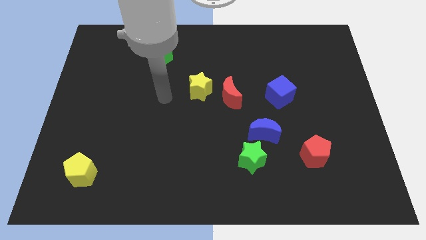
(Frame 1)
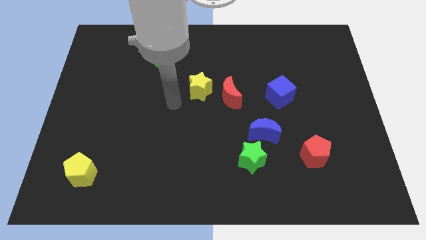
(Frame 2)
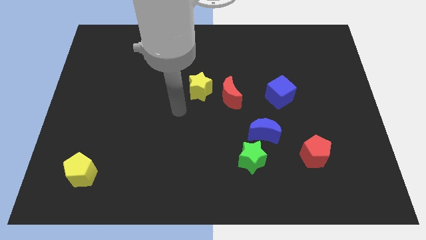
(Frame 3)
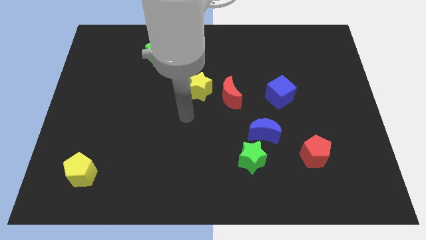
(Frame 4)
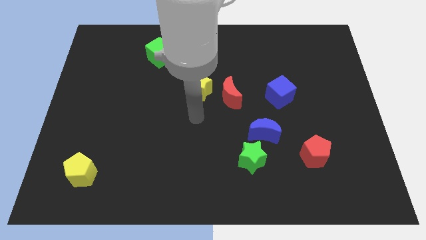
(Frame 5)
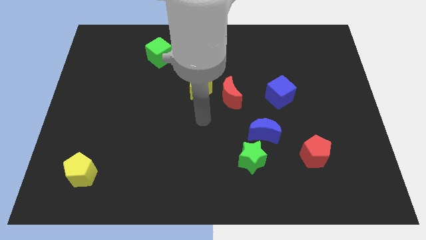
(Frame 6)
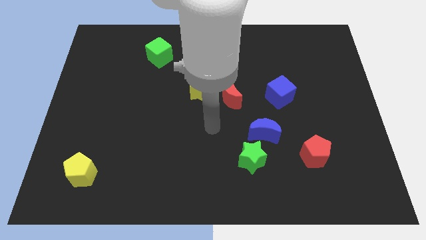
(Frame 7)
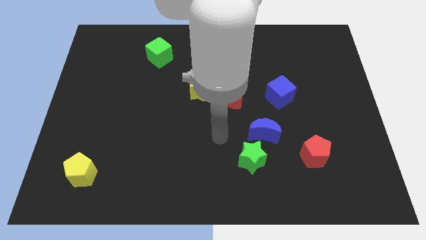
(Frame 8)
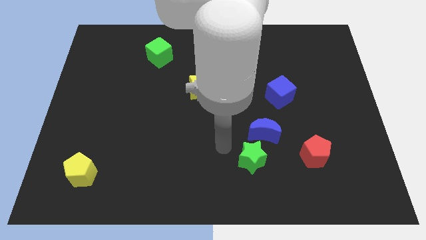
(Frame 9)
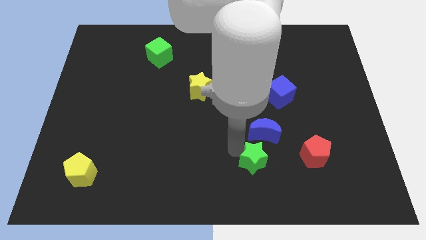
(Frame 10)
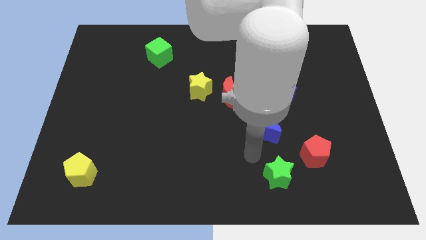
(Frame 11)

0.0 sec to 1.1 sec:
move the blue moon away from the green star

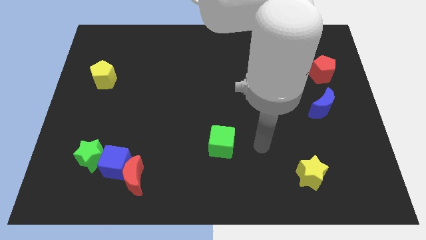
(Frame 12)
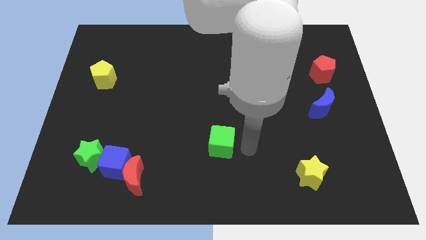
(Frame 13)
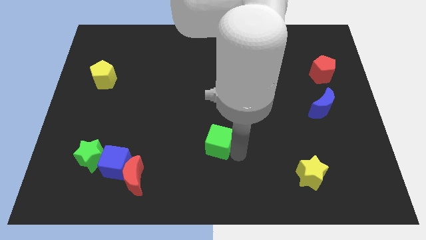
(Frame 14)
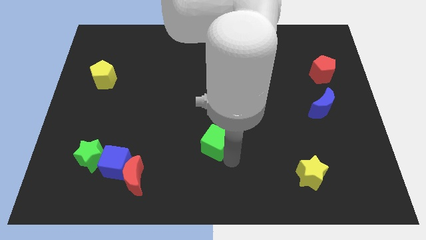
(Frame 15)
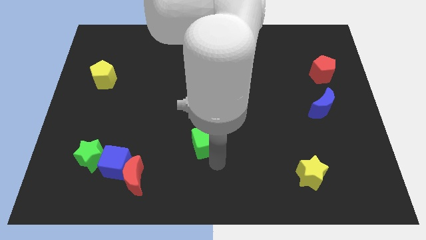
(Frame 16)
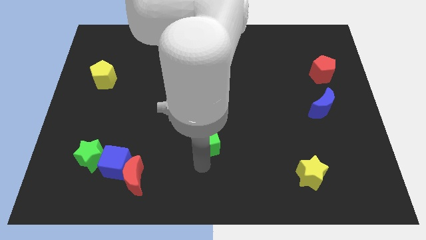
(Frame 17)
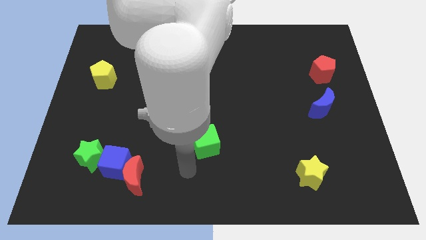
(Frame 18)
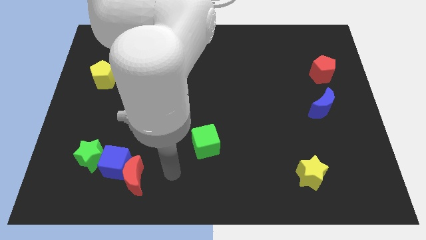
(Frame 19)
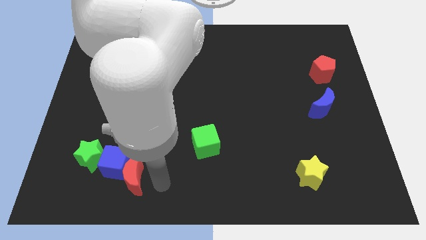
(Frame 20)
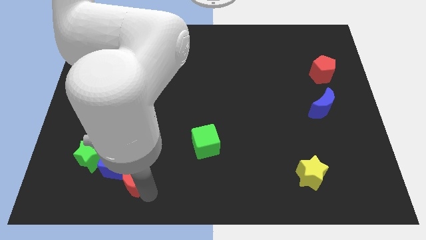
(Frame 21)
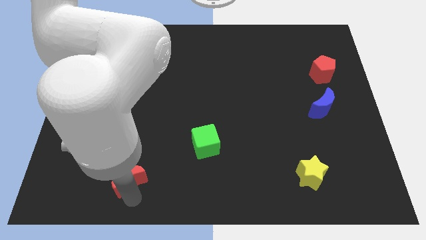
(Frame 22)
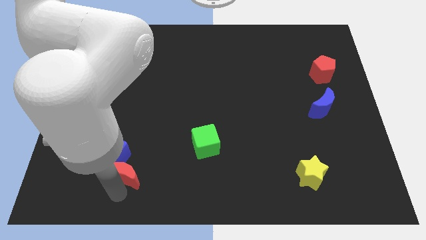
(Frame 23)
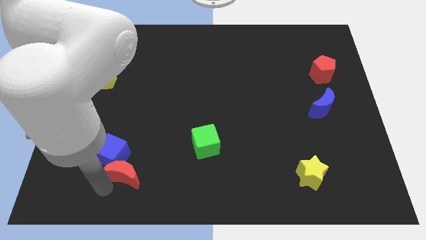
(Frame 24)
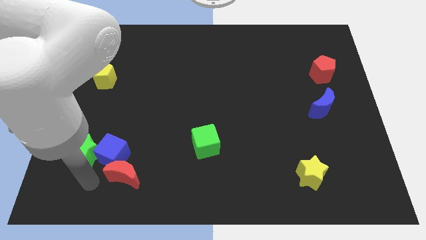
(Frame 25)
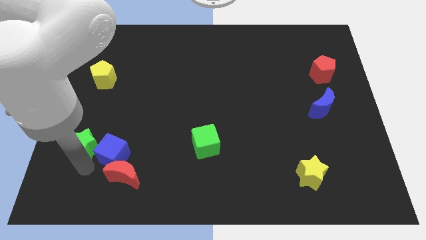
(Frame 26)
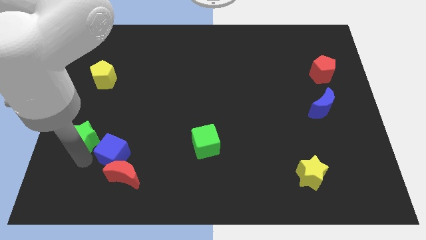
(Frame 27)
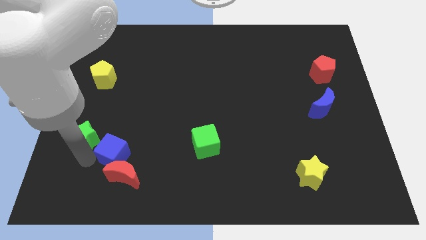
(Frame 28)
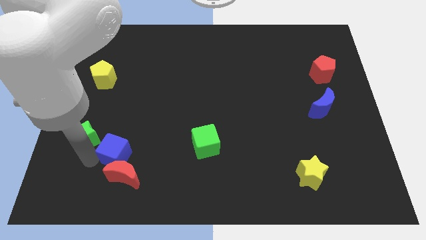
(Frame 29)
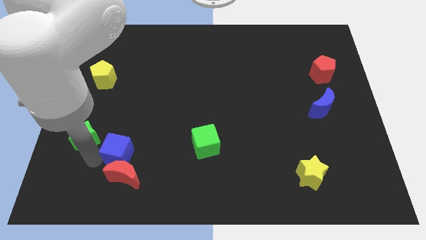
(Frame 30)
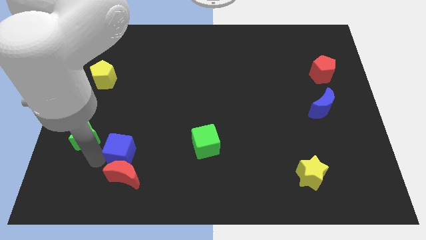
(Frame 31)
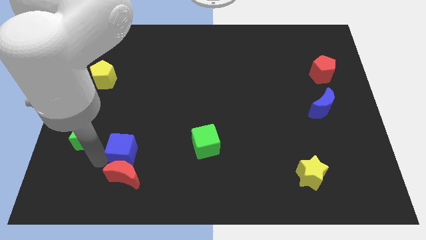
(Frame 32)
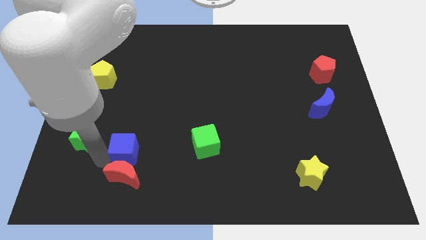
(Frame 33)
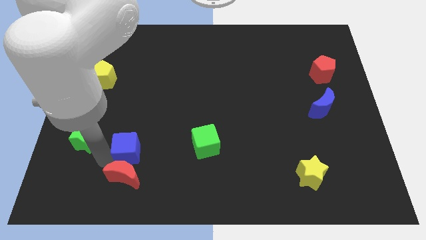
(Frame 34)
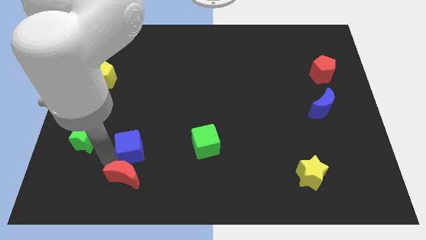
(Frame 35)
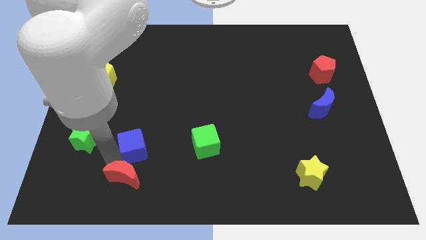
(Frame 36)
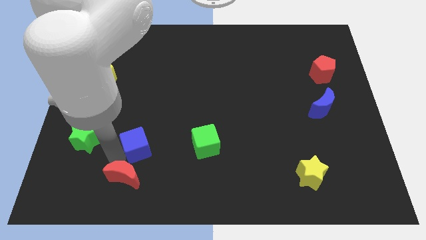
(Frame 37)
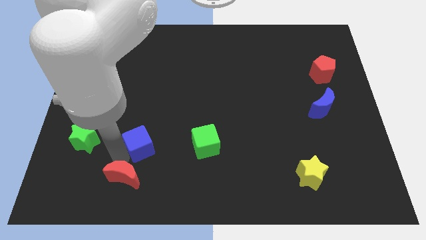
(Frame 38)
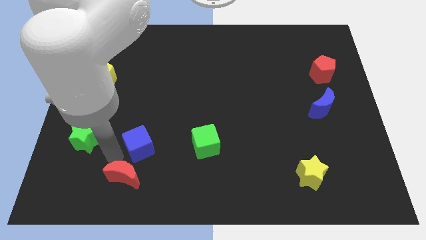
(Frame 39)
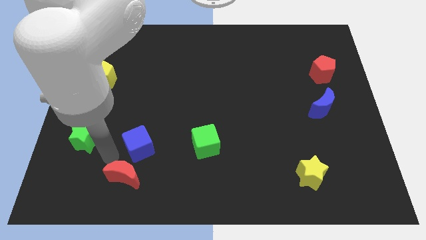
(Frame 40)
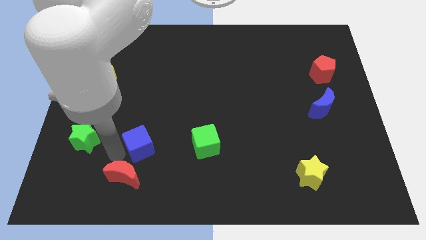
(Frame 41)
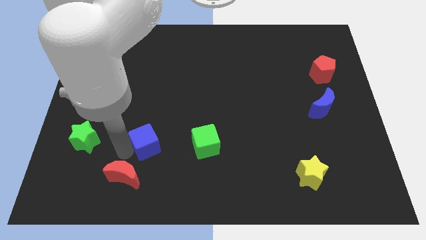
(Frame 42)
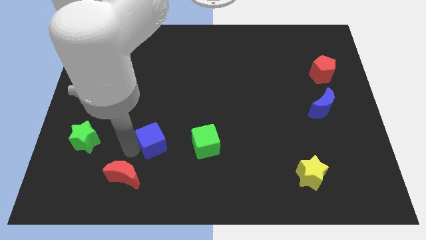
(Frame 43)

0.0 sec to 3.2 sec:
separate the blue cube from the red moon and green star

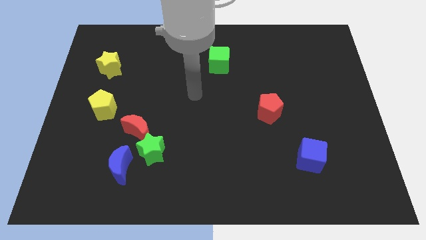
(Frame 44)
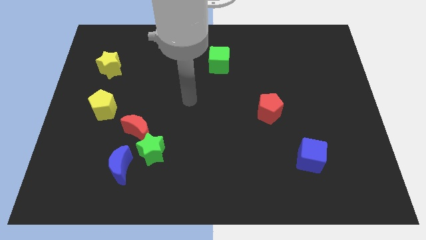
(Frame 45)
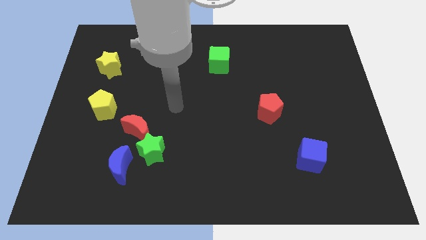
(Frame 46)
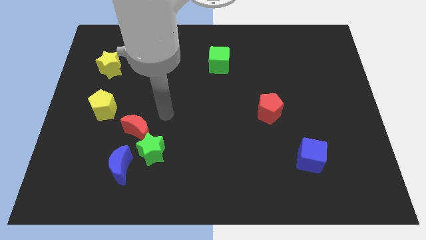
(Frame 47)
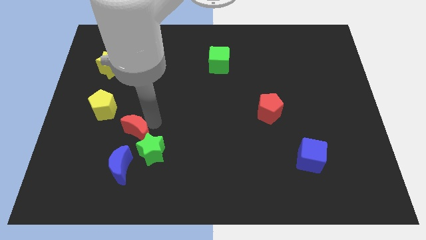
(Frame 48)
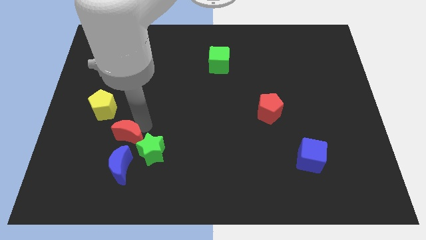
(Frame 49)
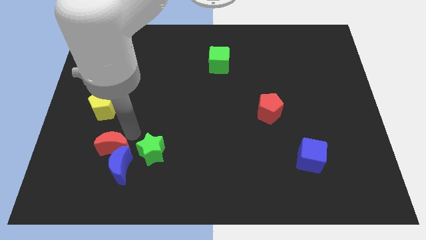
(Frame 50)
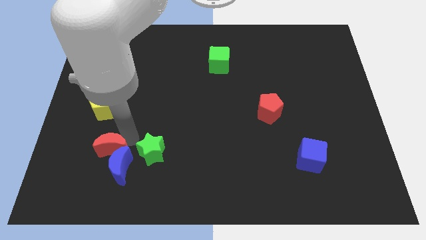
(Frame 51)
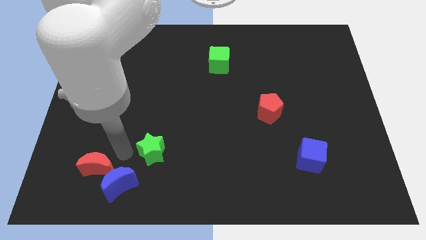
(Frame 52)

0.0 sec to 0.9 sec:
separate the green star from the red moon and blue moon

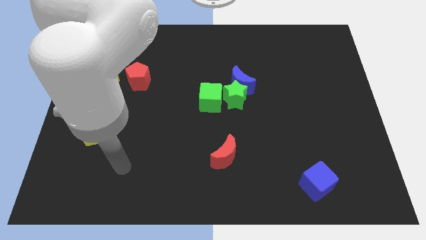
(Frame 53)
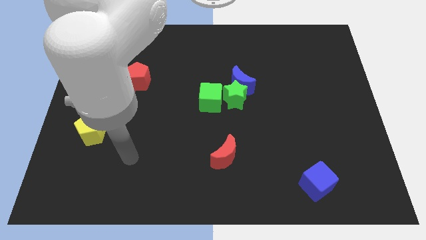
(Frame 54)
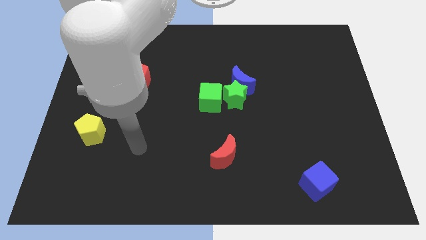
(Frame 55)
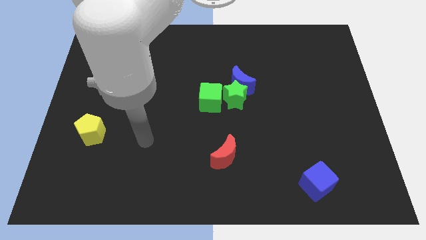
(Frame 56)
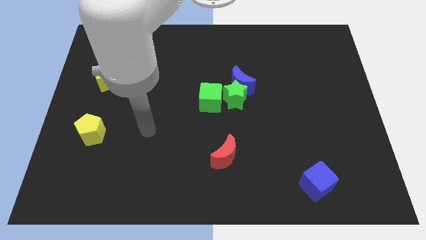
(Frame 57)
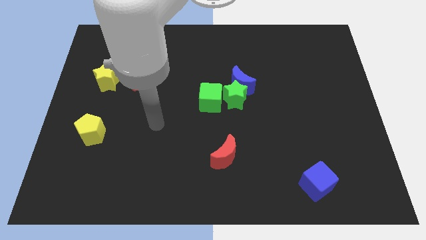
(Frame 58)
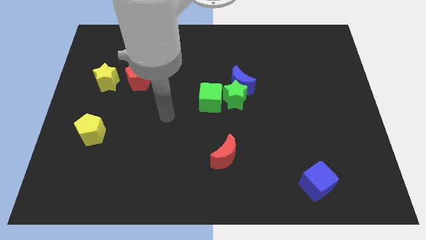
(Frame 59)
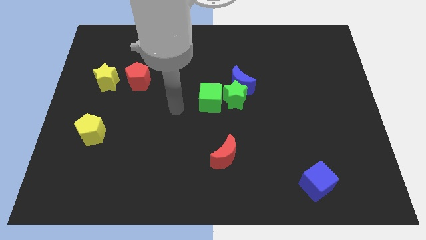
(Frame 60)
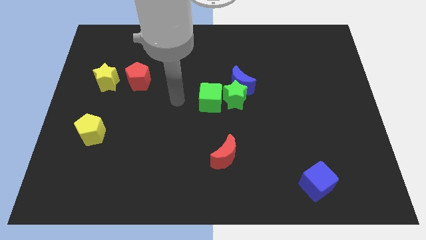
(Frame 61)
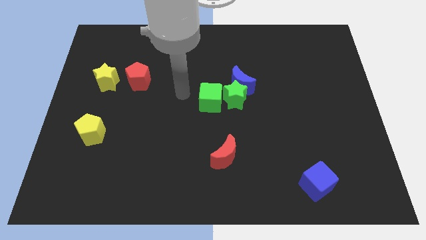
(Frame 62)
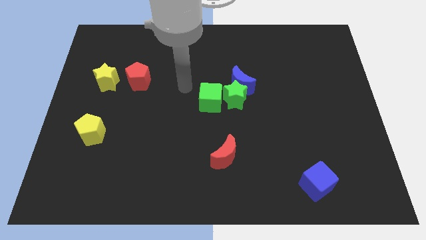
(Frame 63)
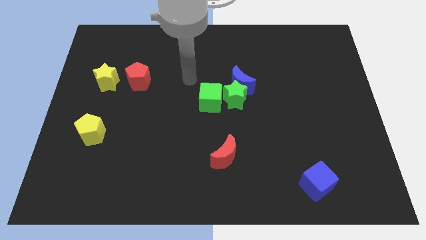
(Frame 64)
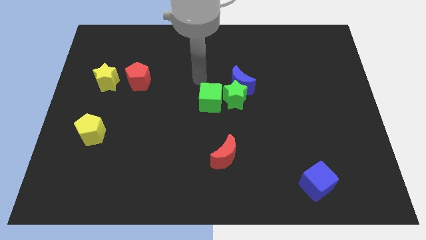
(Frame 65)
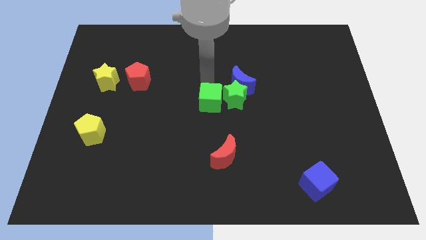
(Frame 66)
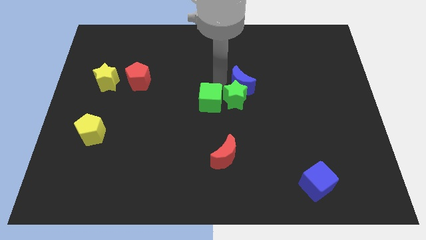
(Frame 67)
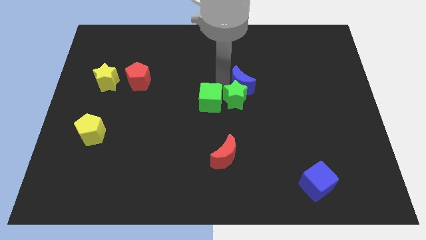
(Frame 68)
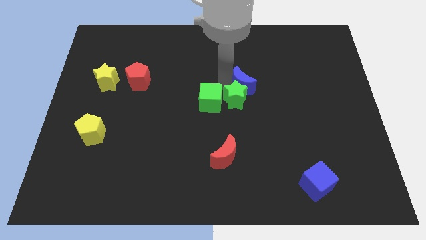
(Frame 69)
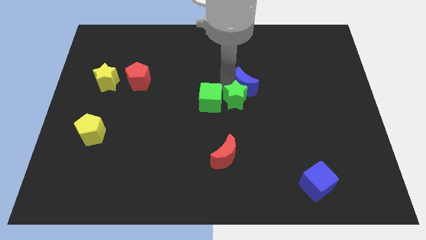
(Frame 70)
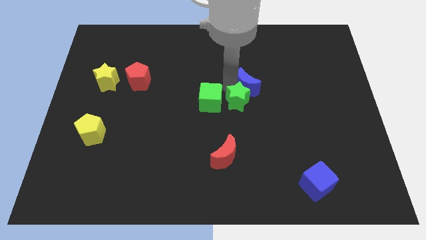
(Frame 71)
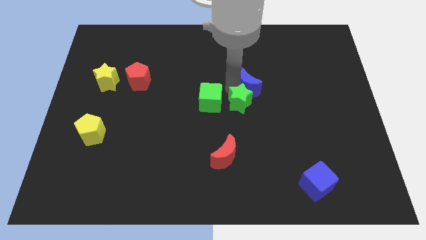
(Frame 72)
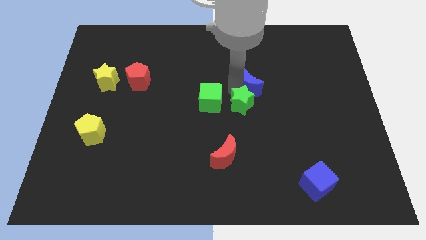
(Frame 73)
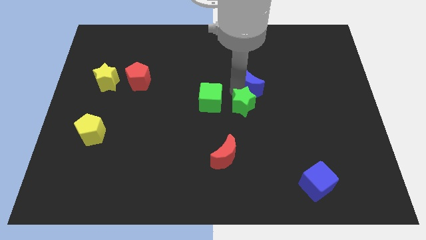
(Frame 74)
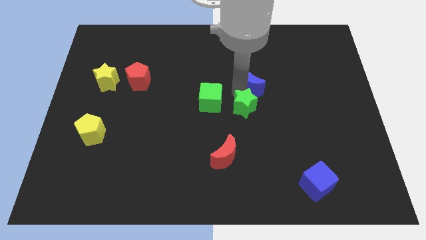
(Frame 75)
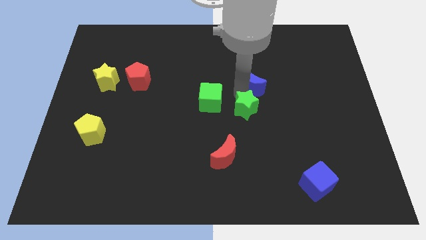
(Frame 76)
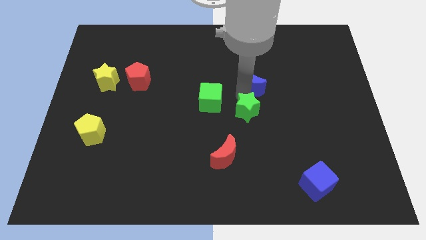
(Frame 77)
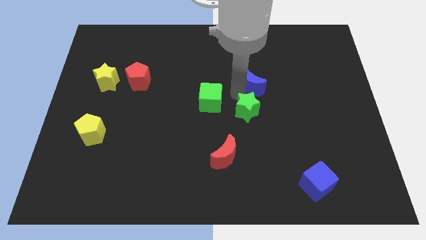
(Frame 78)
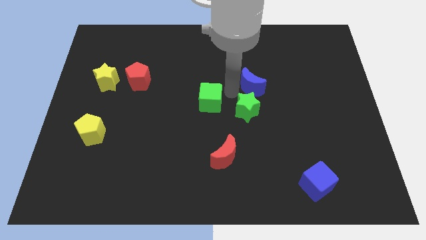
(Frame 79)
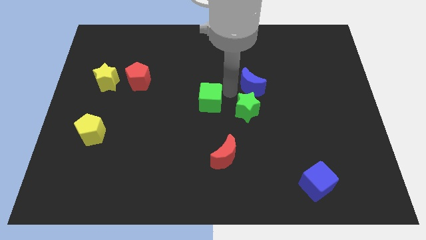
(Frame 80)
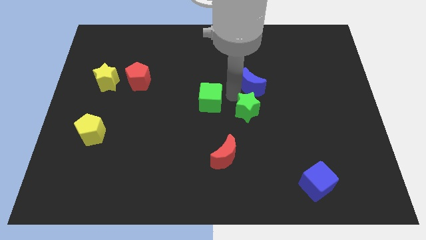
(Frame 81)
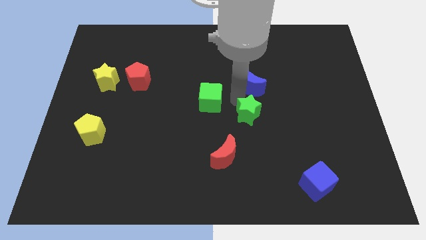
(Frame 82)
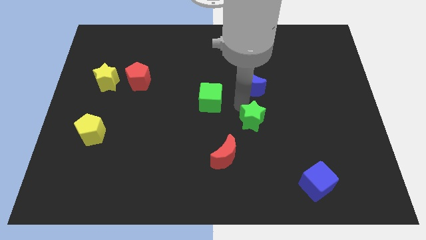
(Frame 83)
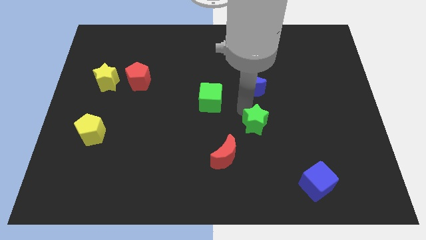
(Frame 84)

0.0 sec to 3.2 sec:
pull the green star apart from the blue moon and green cube

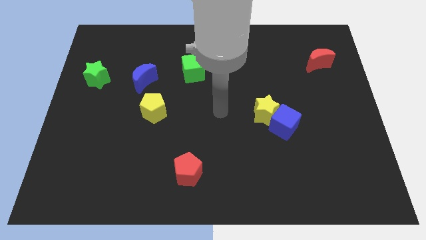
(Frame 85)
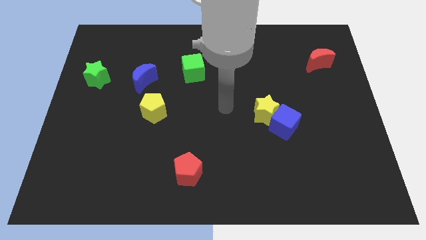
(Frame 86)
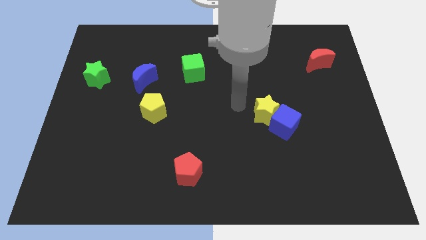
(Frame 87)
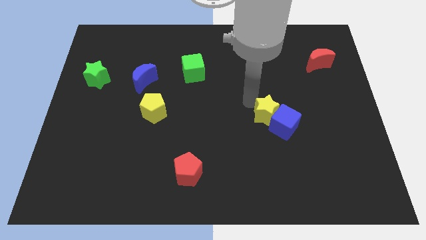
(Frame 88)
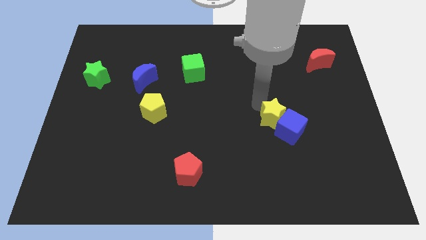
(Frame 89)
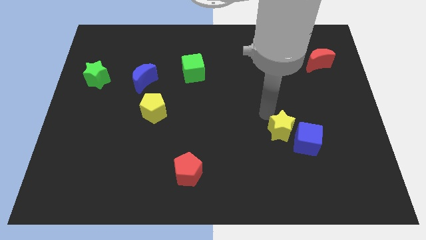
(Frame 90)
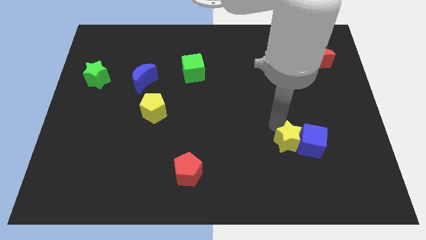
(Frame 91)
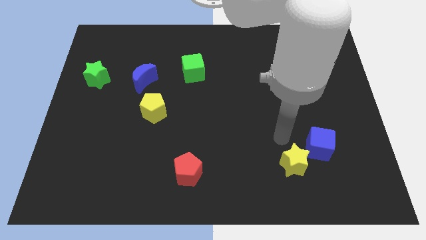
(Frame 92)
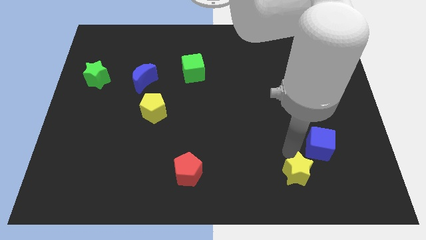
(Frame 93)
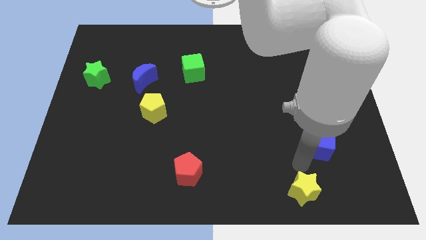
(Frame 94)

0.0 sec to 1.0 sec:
separate the blue cube from the yellow star
